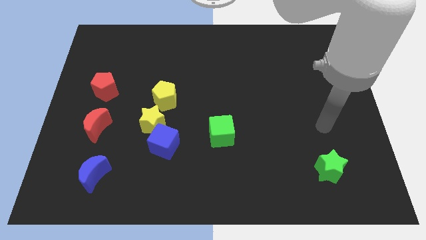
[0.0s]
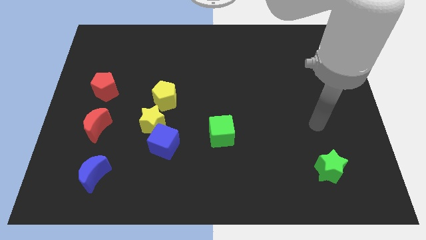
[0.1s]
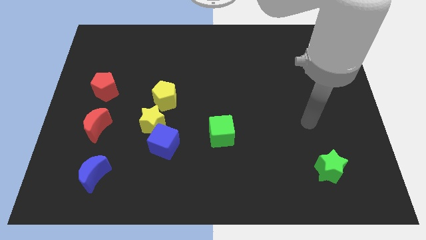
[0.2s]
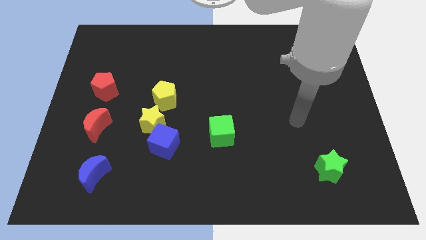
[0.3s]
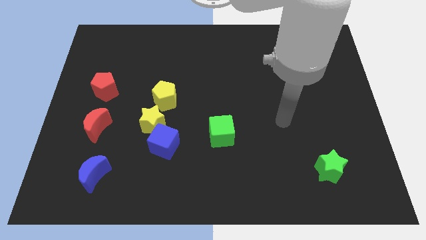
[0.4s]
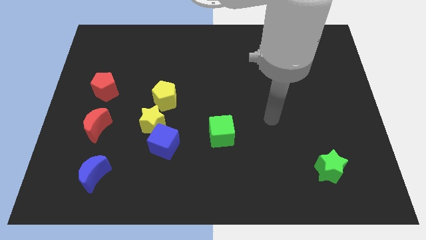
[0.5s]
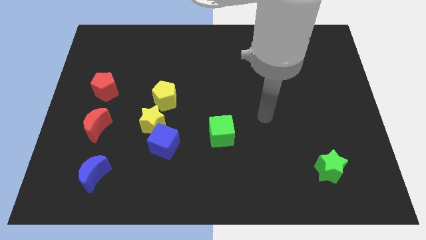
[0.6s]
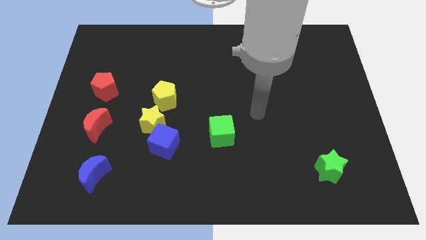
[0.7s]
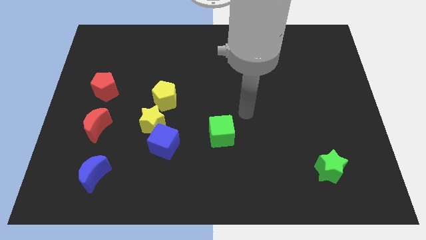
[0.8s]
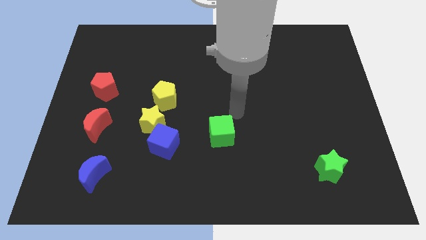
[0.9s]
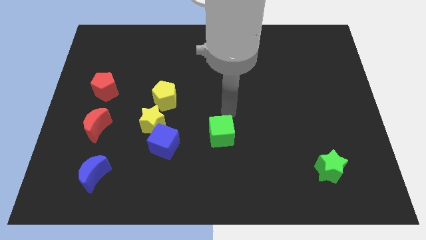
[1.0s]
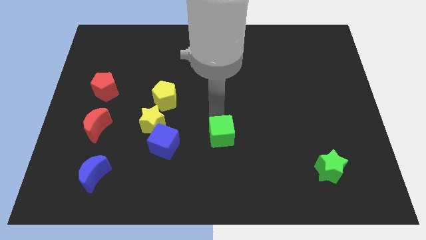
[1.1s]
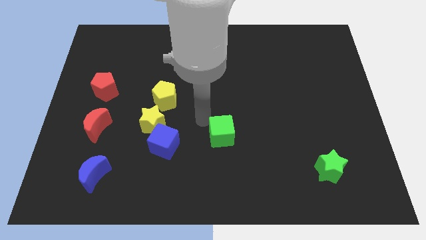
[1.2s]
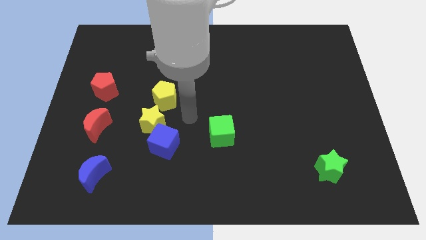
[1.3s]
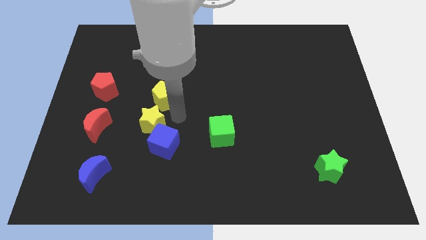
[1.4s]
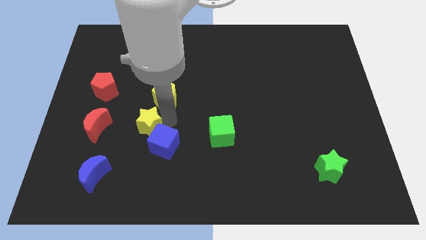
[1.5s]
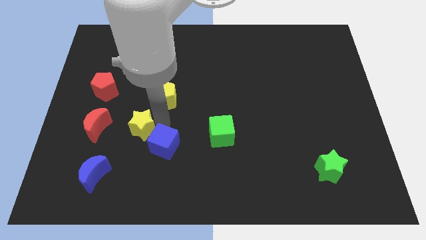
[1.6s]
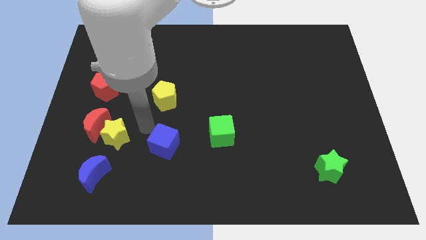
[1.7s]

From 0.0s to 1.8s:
pull the blue cube apart from the yellow star

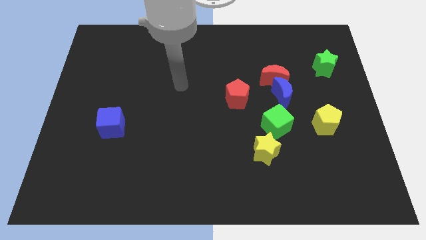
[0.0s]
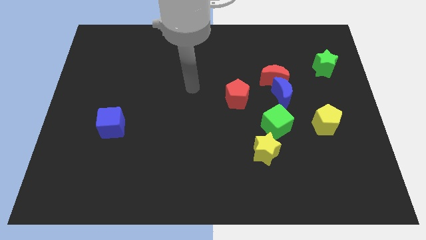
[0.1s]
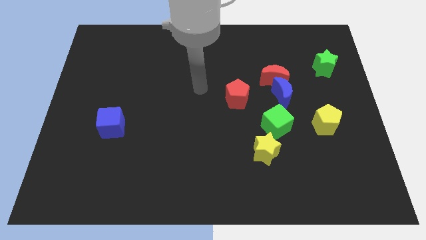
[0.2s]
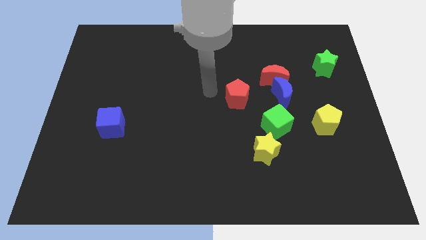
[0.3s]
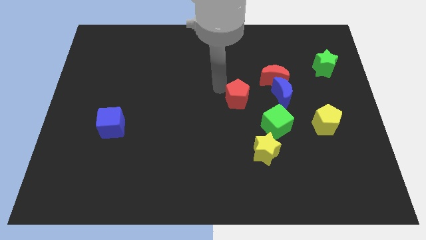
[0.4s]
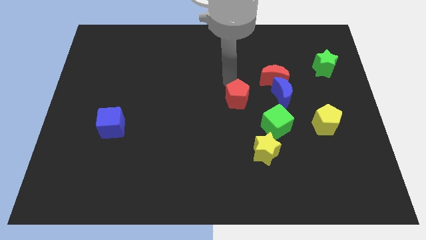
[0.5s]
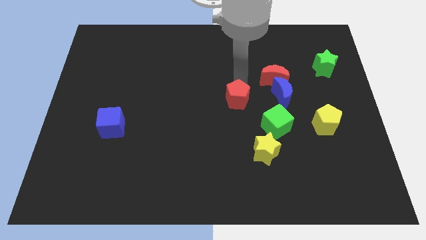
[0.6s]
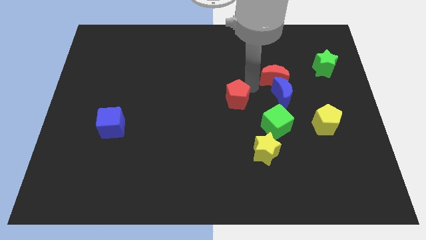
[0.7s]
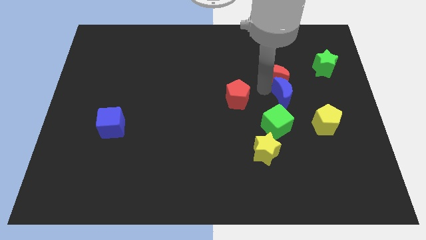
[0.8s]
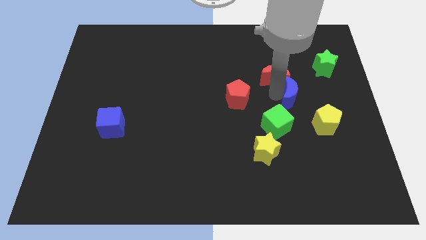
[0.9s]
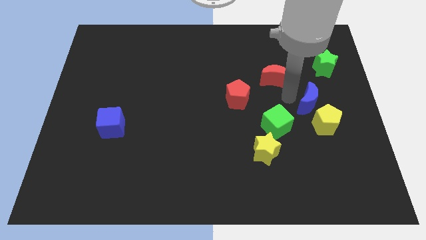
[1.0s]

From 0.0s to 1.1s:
pull the red moon apart from the blue moon

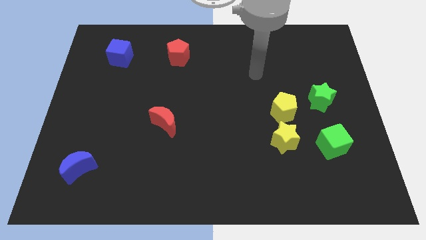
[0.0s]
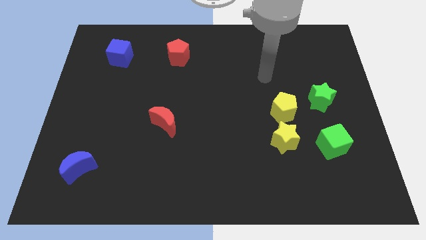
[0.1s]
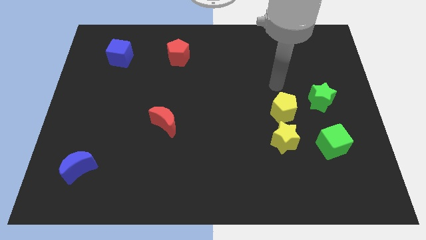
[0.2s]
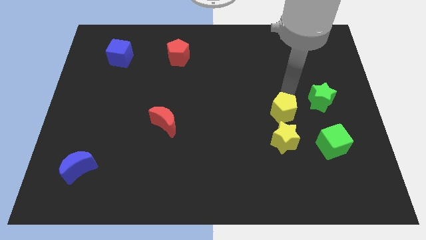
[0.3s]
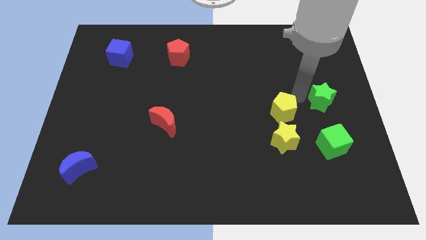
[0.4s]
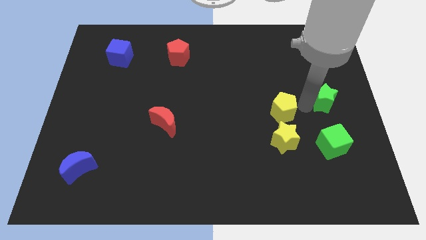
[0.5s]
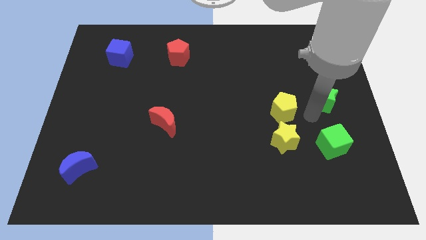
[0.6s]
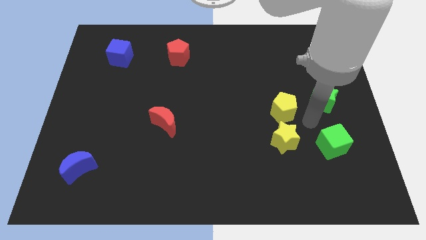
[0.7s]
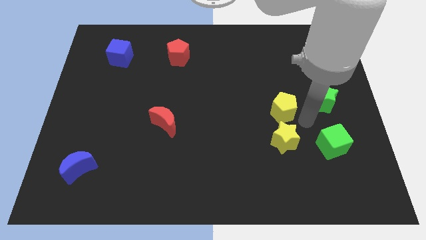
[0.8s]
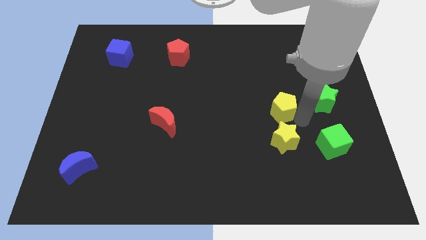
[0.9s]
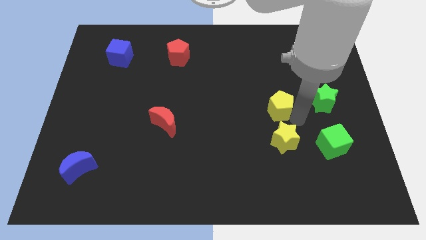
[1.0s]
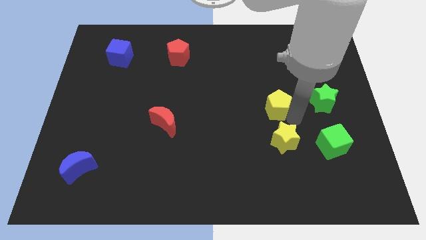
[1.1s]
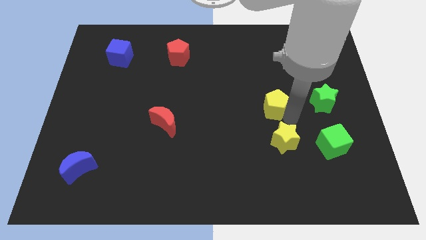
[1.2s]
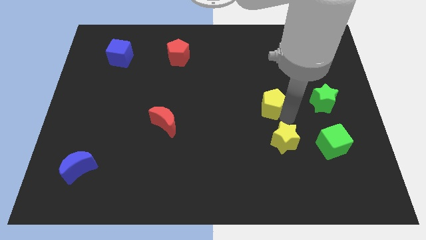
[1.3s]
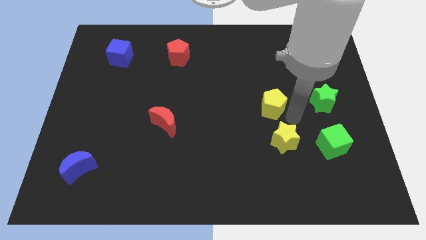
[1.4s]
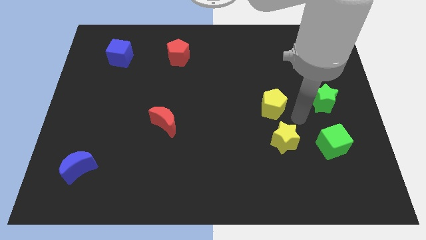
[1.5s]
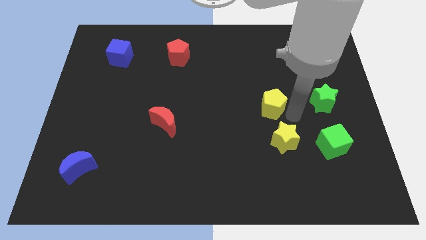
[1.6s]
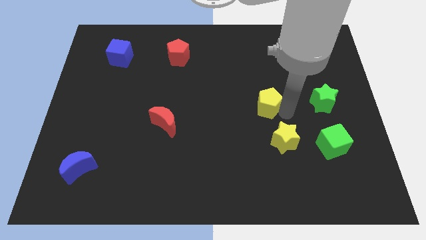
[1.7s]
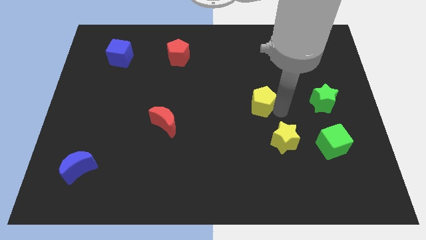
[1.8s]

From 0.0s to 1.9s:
move the yellow pentagon away from the yellow star and green star

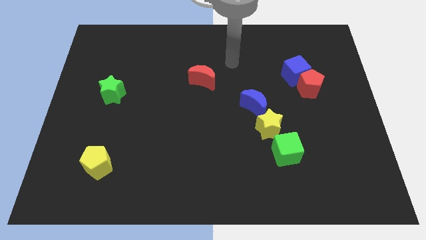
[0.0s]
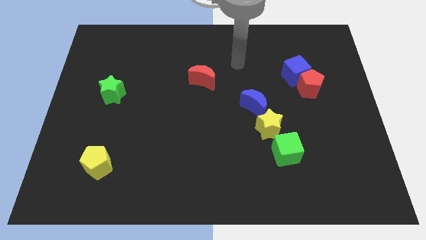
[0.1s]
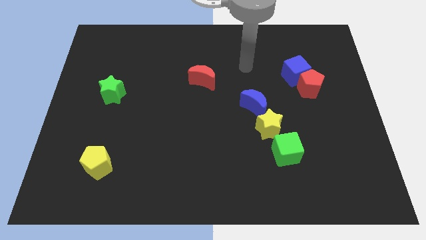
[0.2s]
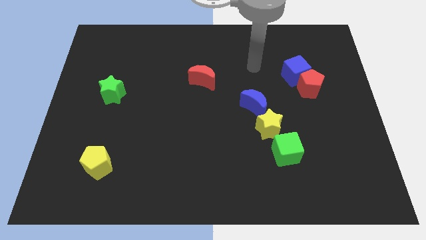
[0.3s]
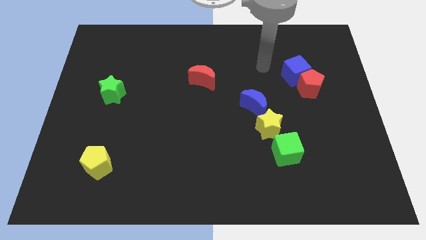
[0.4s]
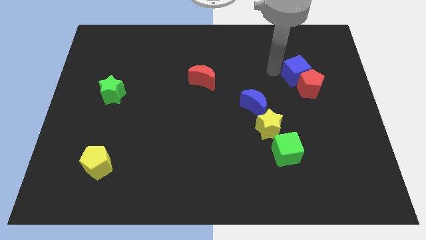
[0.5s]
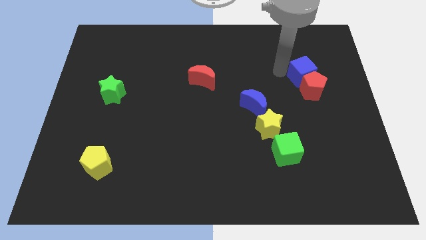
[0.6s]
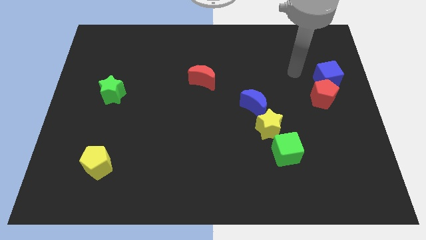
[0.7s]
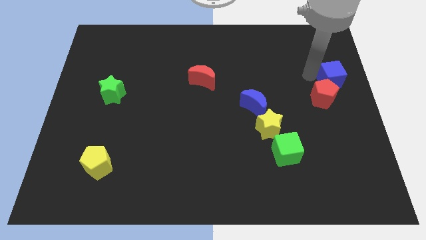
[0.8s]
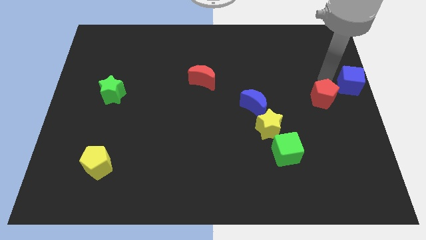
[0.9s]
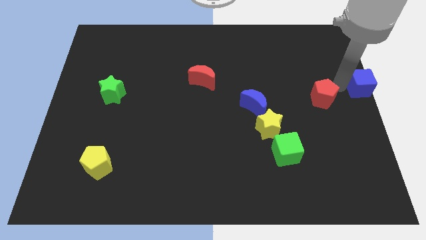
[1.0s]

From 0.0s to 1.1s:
pull the red pentagon apart from the blue cube

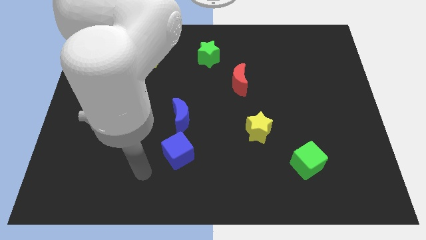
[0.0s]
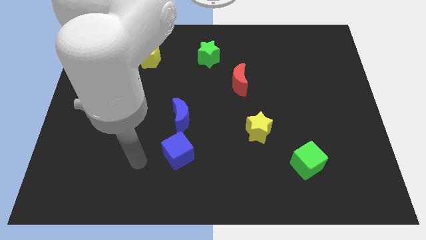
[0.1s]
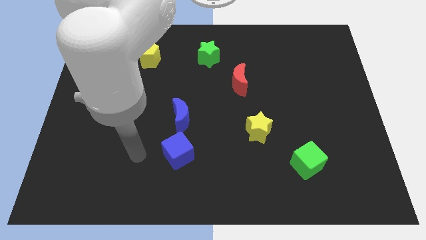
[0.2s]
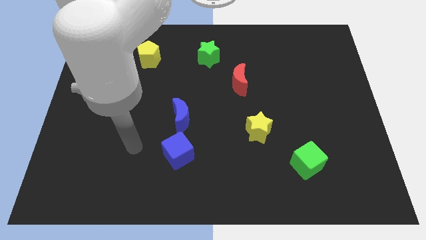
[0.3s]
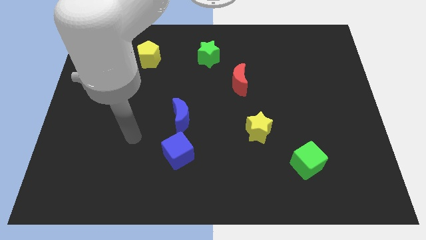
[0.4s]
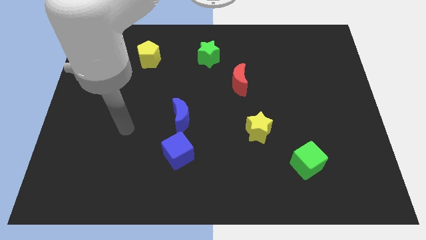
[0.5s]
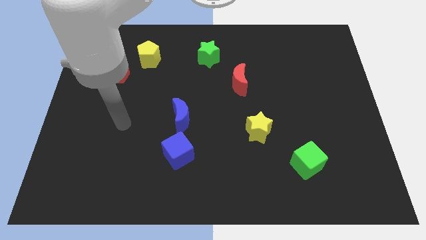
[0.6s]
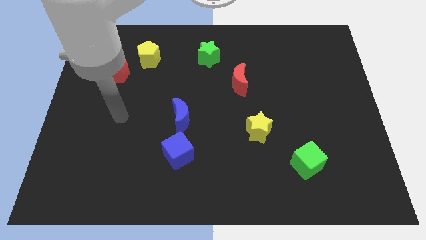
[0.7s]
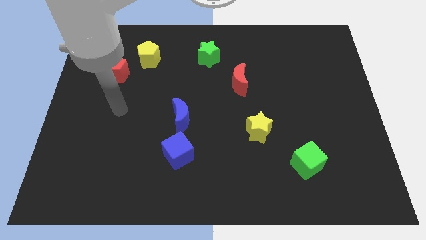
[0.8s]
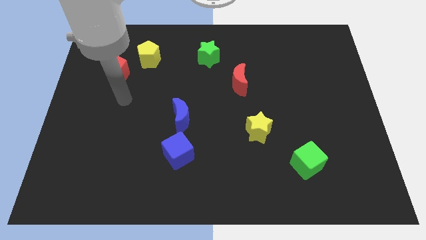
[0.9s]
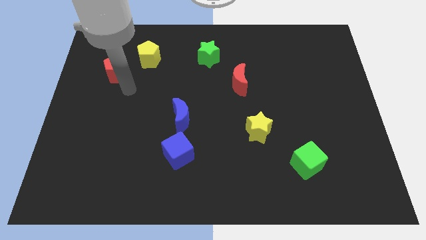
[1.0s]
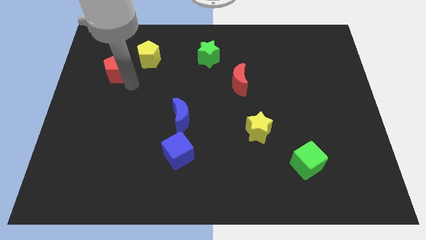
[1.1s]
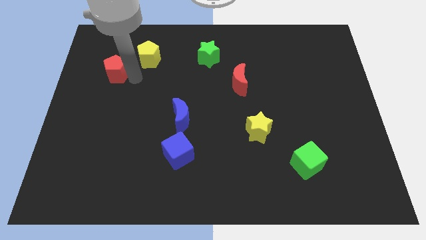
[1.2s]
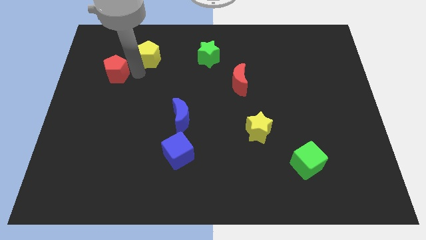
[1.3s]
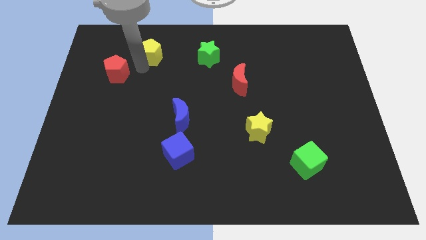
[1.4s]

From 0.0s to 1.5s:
separate the red pentagon from the yellow pentagon

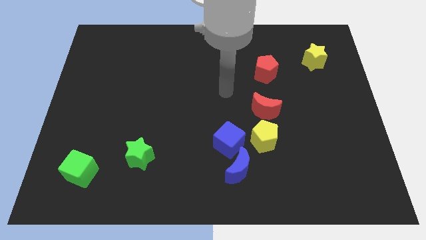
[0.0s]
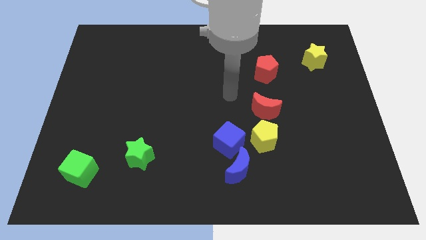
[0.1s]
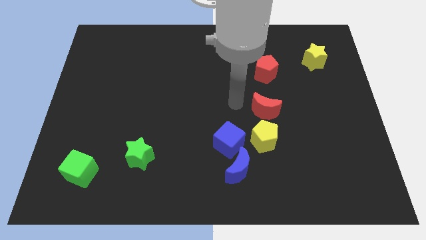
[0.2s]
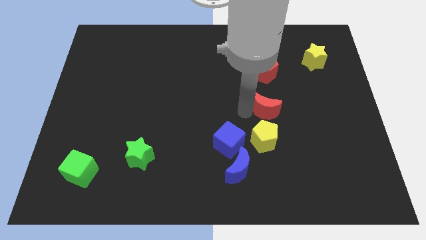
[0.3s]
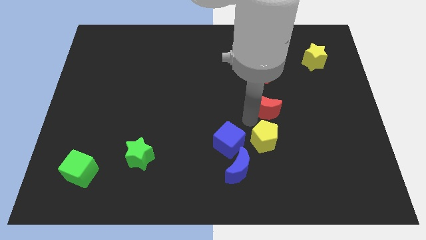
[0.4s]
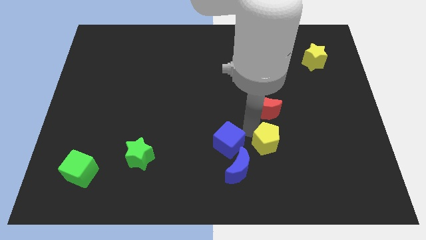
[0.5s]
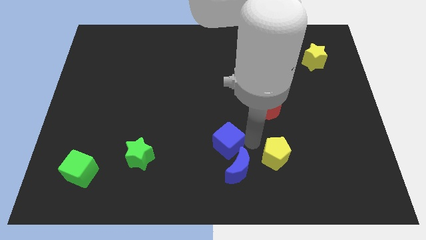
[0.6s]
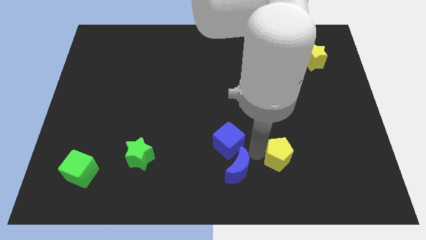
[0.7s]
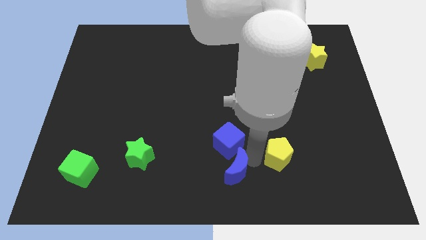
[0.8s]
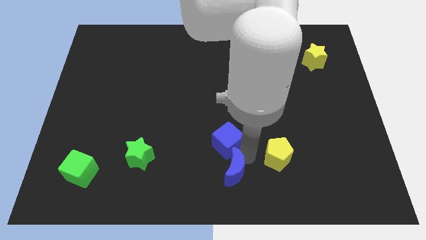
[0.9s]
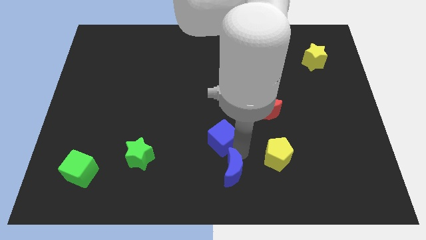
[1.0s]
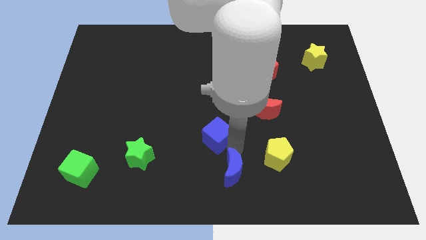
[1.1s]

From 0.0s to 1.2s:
move the blue cube away from the blue moon and yellow pentagon

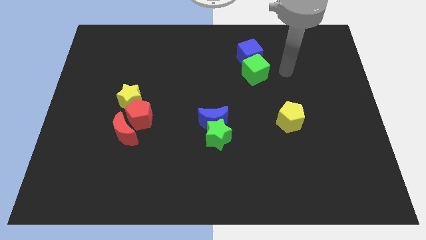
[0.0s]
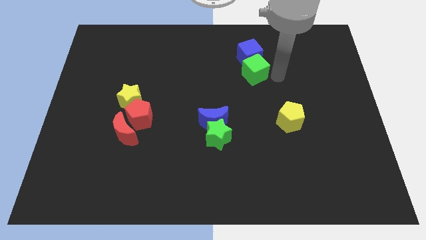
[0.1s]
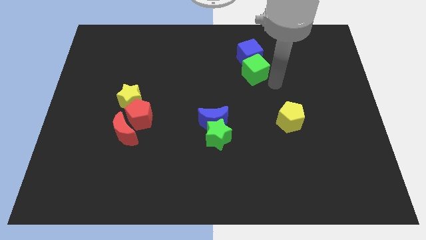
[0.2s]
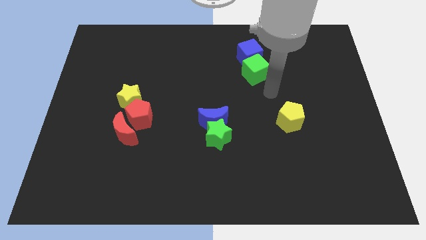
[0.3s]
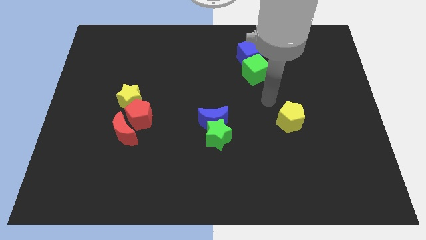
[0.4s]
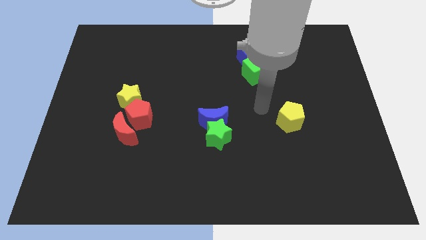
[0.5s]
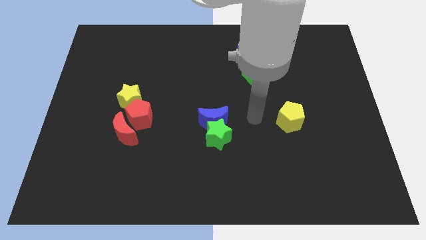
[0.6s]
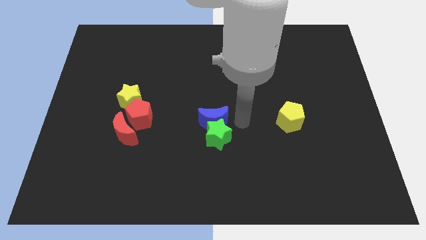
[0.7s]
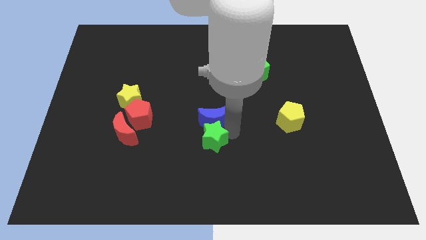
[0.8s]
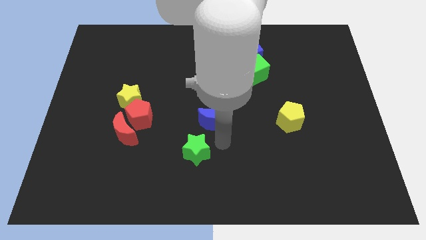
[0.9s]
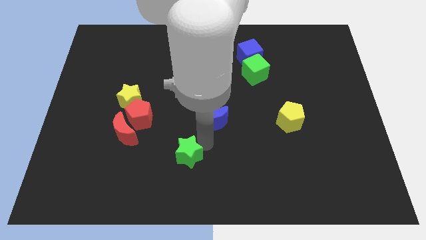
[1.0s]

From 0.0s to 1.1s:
pull the blue moon apart from the green star
